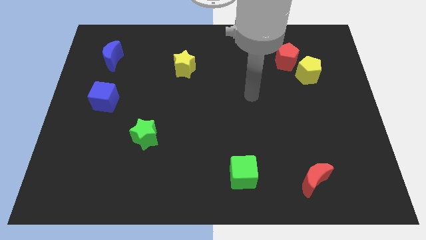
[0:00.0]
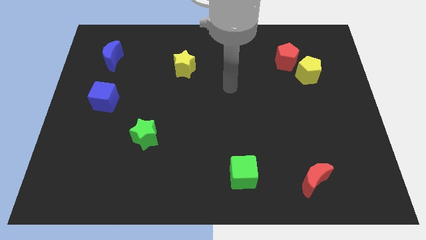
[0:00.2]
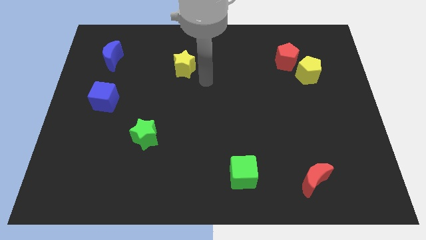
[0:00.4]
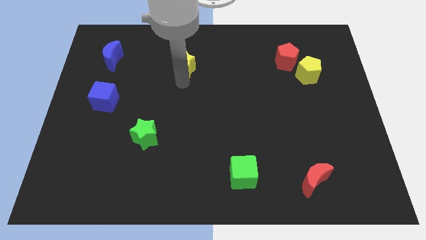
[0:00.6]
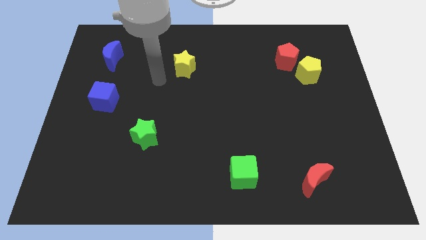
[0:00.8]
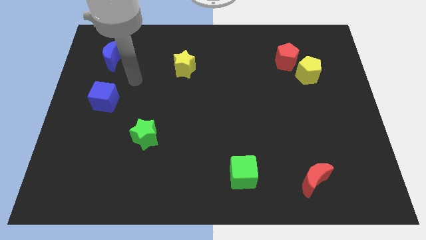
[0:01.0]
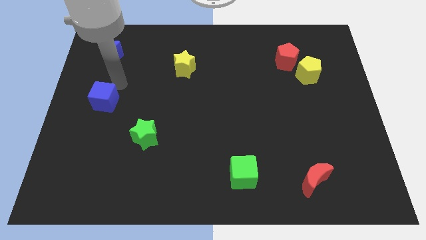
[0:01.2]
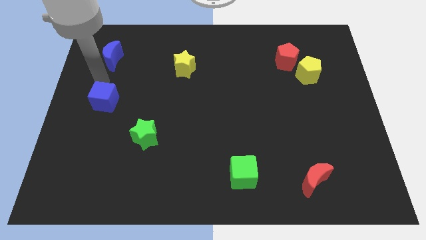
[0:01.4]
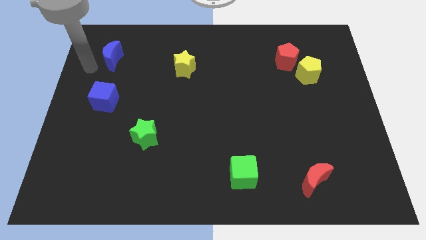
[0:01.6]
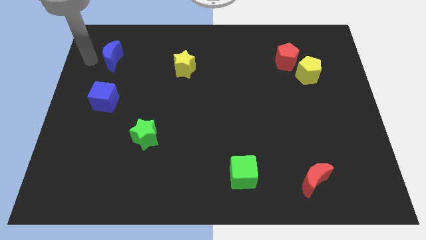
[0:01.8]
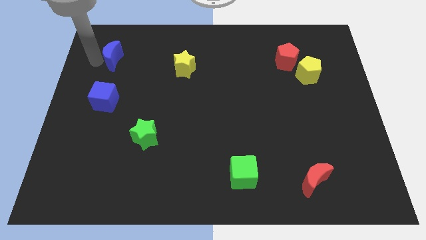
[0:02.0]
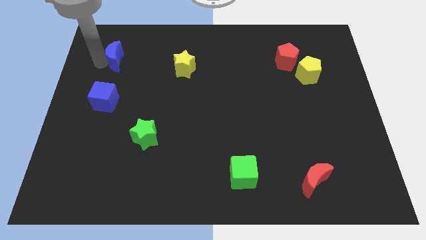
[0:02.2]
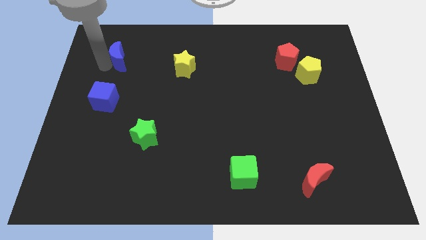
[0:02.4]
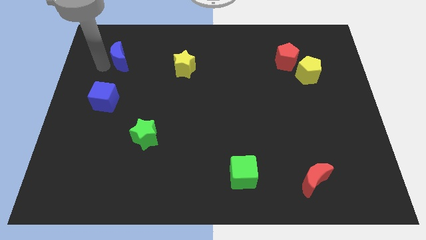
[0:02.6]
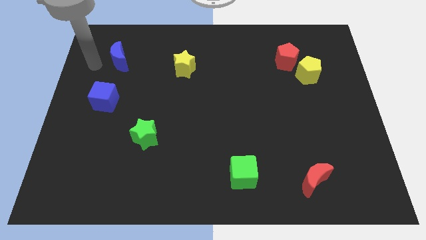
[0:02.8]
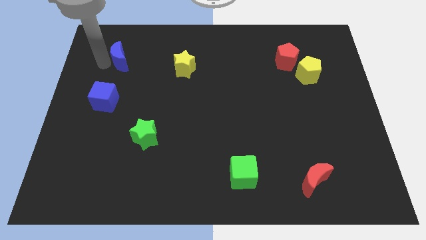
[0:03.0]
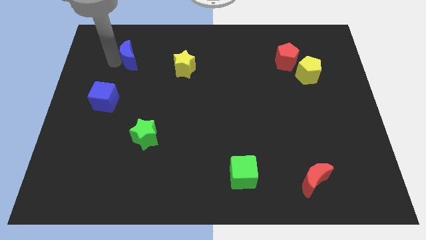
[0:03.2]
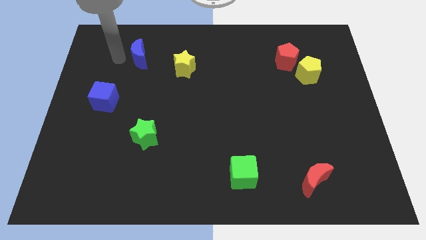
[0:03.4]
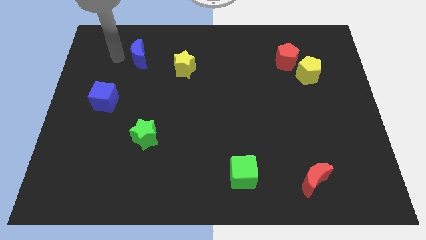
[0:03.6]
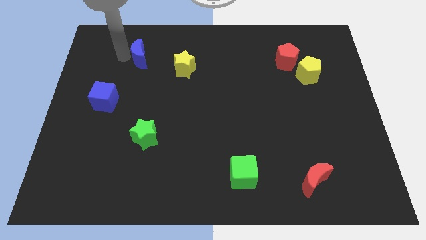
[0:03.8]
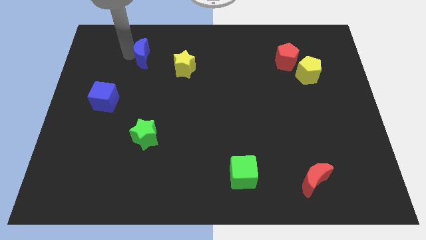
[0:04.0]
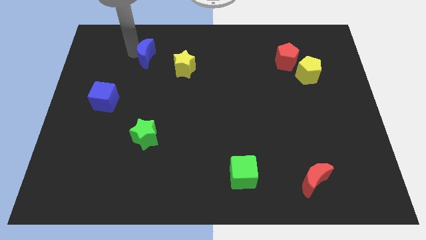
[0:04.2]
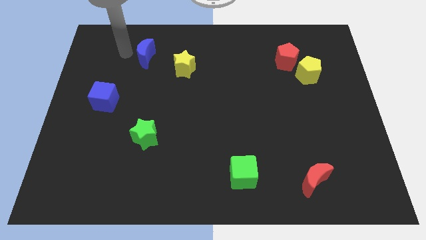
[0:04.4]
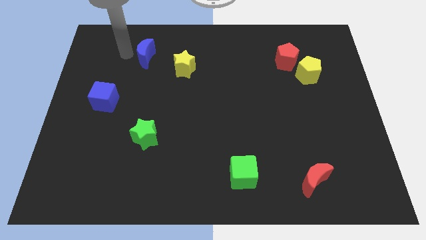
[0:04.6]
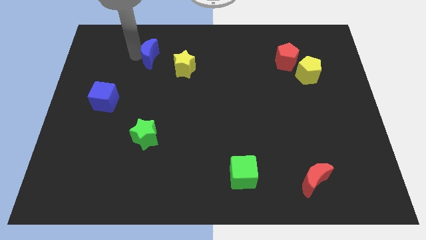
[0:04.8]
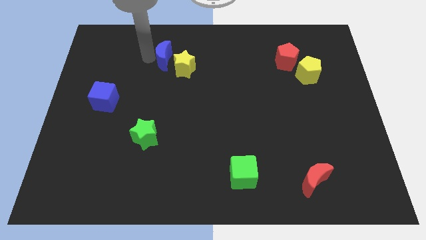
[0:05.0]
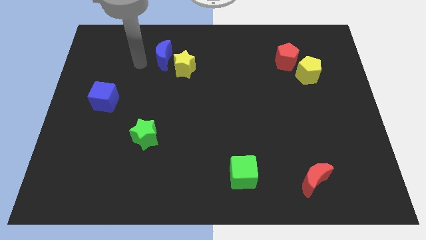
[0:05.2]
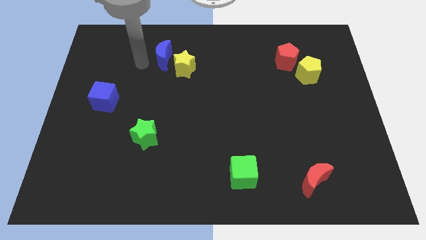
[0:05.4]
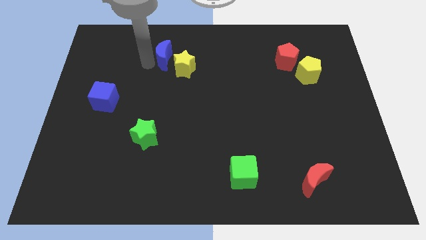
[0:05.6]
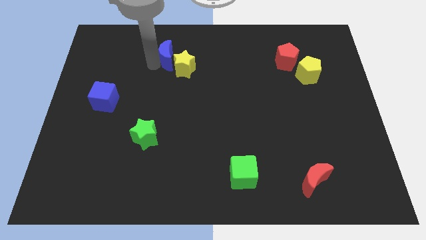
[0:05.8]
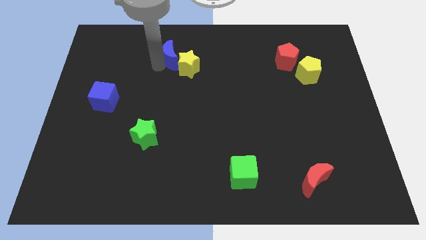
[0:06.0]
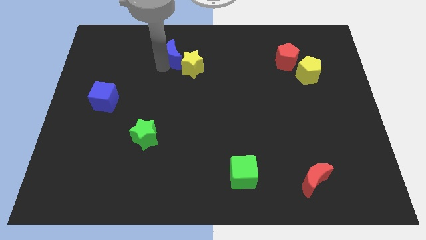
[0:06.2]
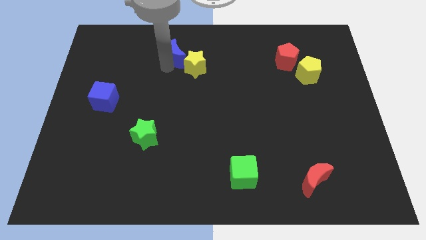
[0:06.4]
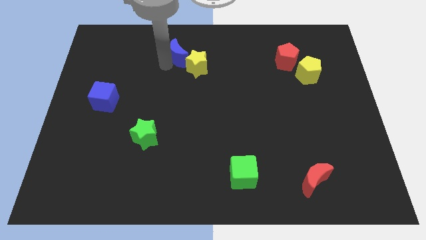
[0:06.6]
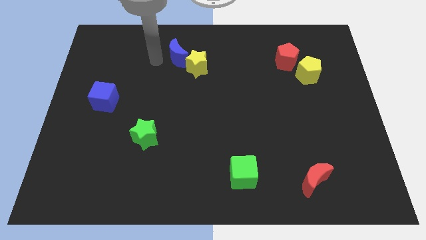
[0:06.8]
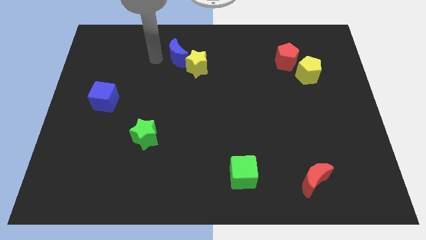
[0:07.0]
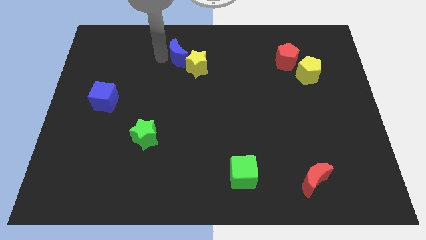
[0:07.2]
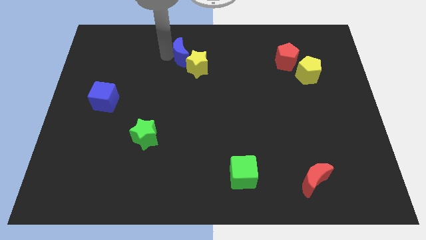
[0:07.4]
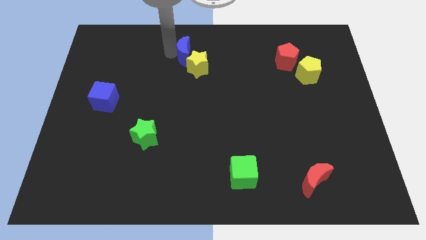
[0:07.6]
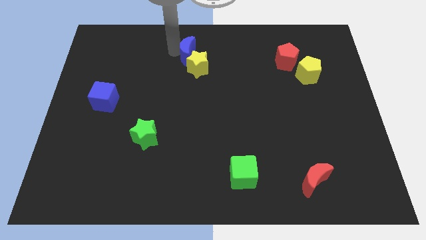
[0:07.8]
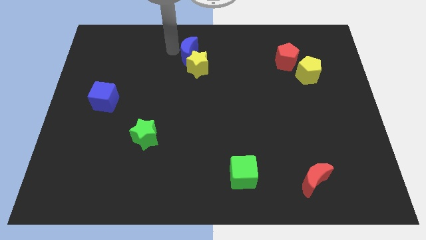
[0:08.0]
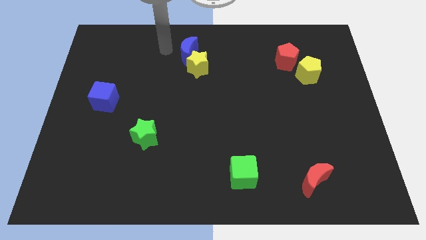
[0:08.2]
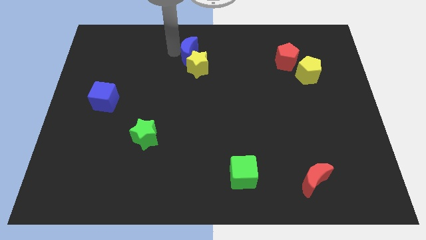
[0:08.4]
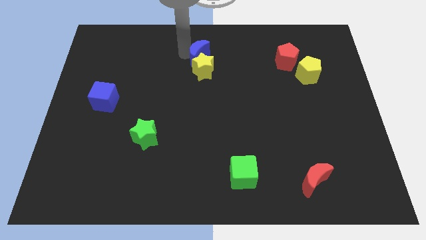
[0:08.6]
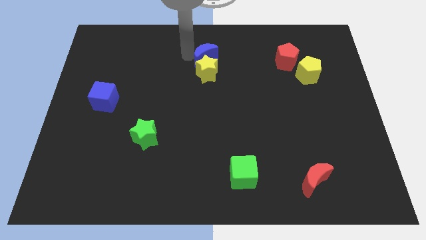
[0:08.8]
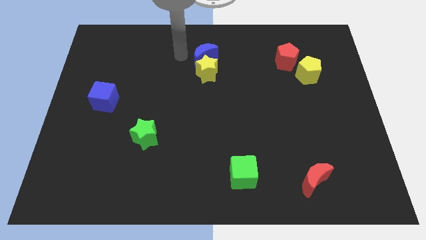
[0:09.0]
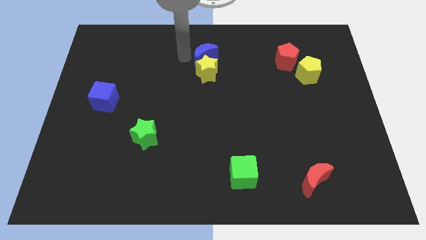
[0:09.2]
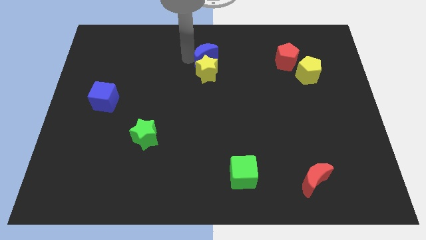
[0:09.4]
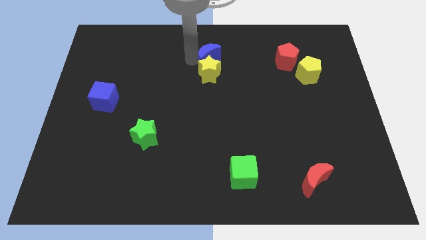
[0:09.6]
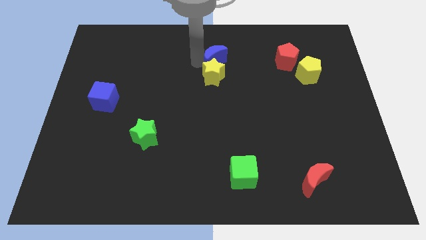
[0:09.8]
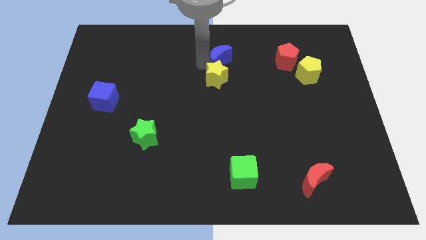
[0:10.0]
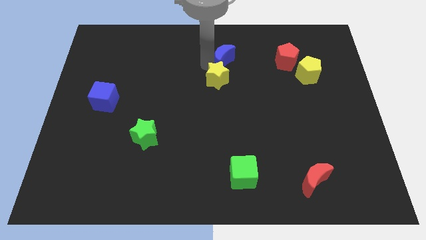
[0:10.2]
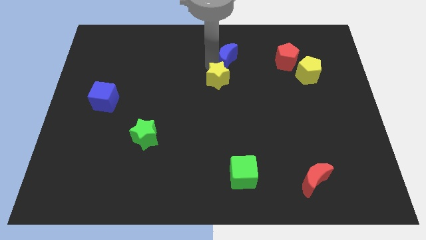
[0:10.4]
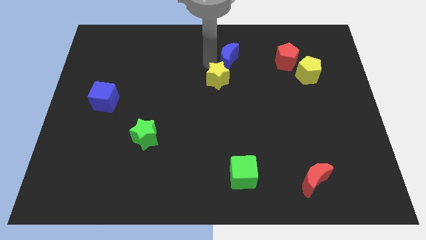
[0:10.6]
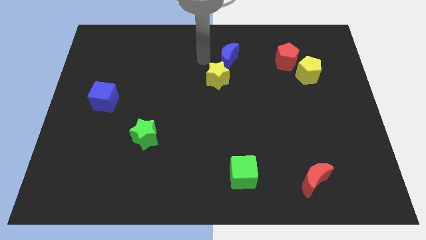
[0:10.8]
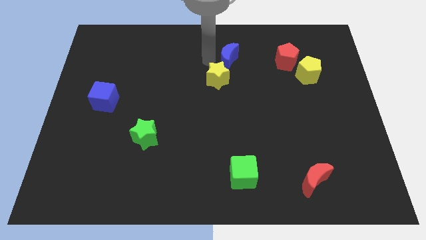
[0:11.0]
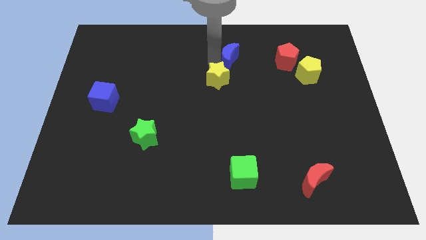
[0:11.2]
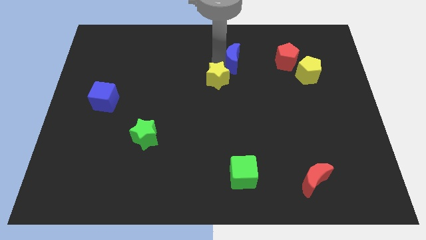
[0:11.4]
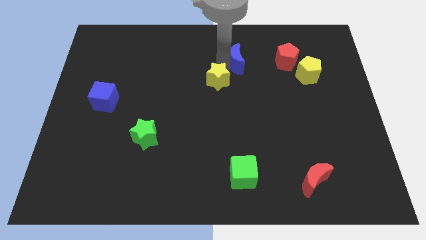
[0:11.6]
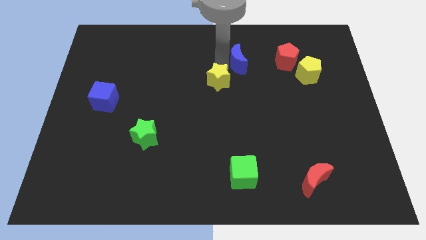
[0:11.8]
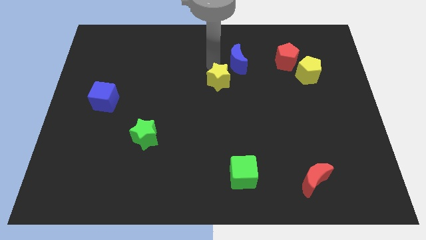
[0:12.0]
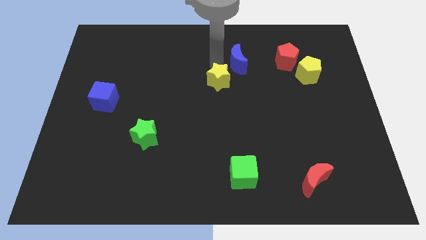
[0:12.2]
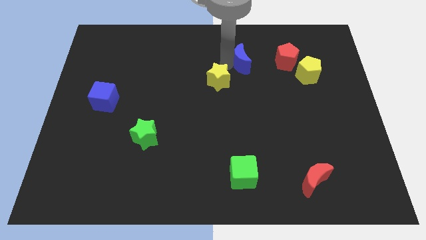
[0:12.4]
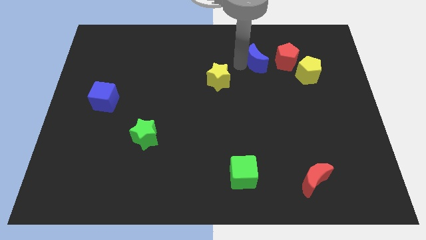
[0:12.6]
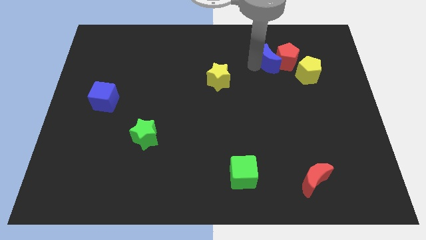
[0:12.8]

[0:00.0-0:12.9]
push the blue moon to the top left of the yellow pentagon

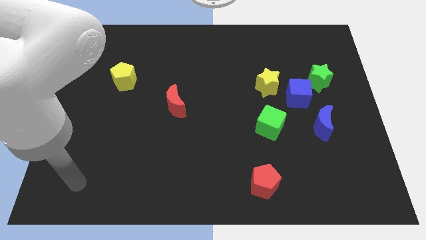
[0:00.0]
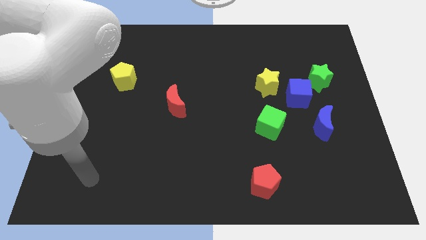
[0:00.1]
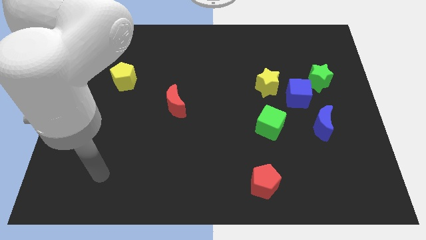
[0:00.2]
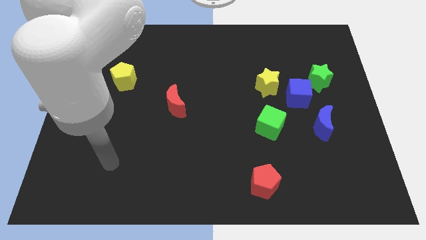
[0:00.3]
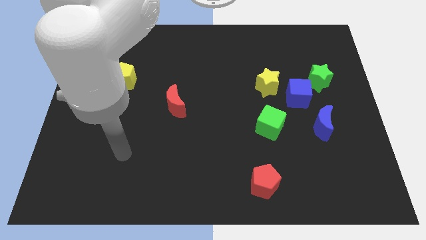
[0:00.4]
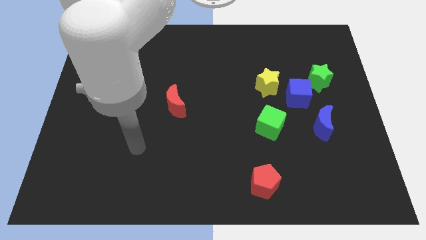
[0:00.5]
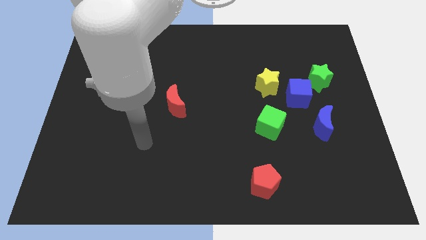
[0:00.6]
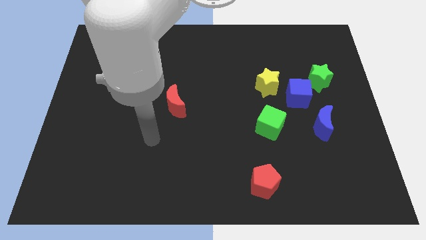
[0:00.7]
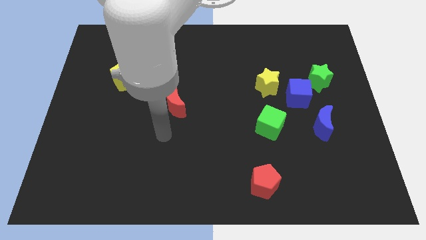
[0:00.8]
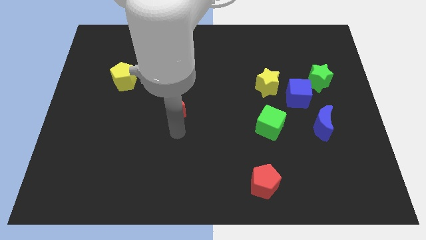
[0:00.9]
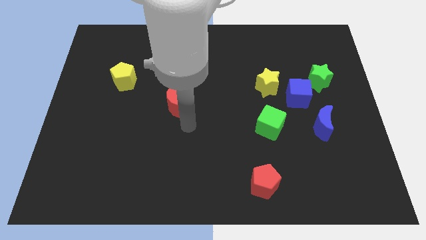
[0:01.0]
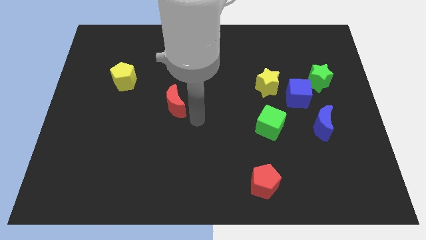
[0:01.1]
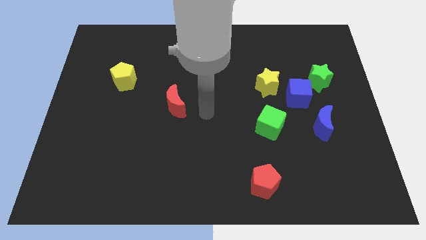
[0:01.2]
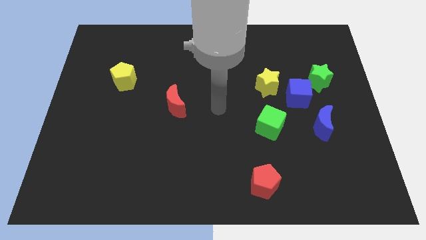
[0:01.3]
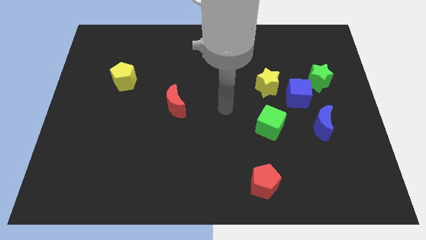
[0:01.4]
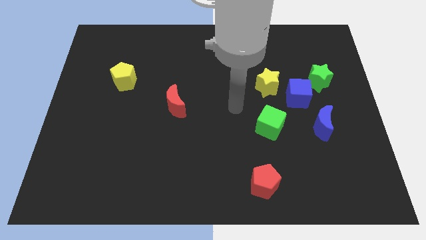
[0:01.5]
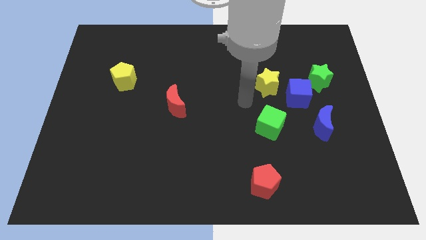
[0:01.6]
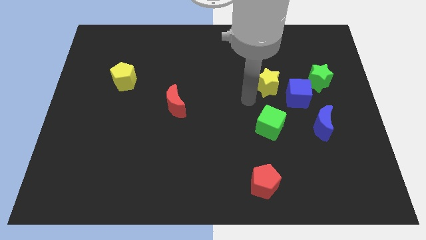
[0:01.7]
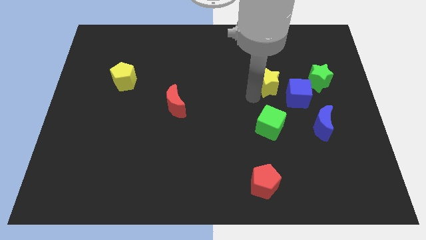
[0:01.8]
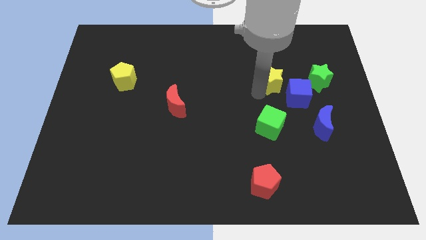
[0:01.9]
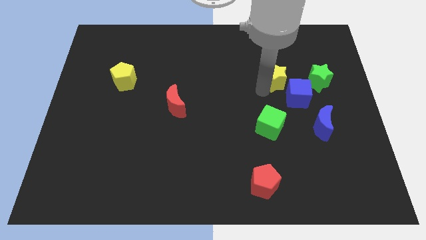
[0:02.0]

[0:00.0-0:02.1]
move the yellow star above the blue cube

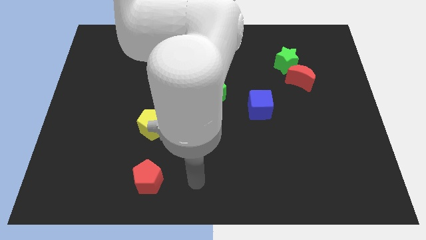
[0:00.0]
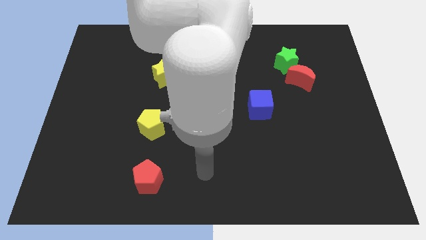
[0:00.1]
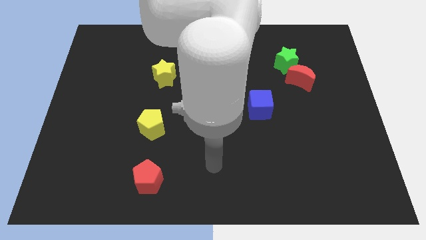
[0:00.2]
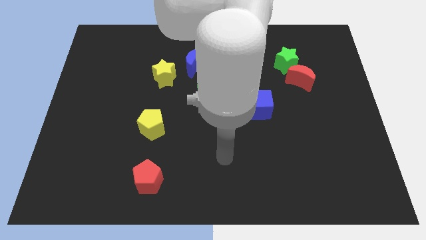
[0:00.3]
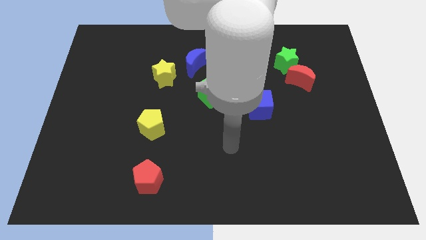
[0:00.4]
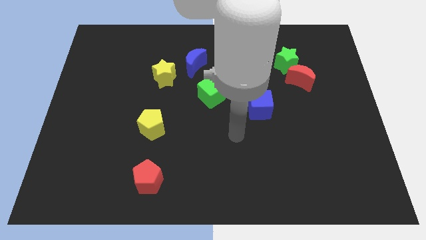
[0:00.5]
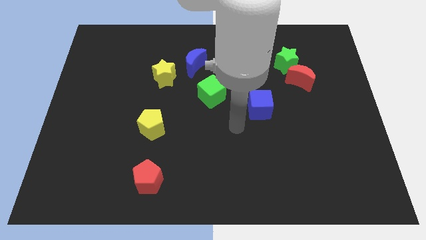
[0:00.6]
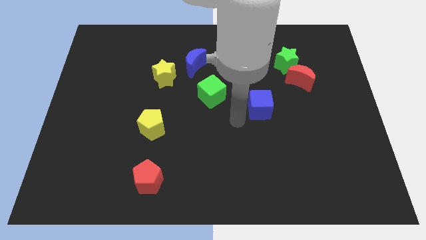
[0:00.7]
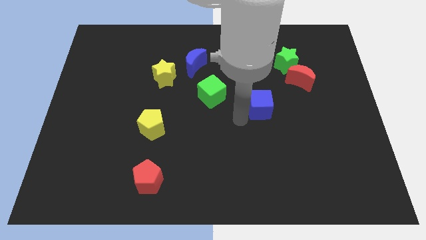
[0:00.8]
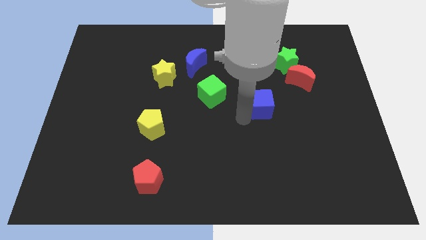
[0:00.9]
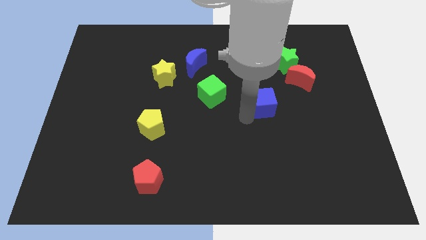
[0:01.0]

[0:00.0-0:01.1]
push the blue cube to the bottom left side of the red moon
